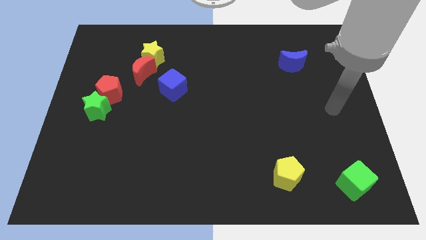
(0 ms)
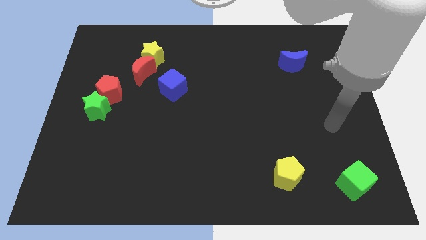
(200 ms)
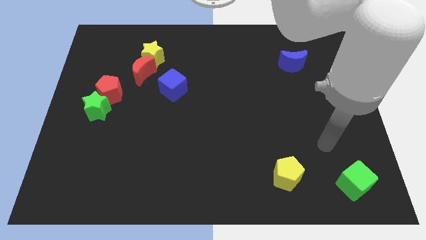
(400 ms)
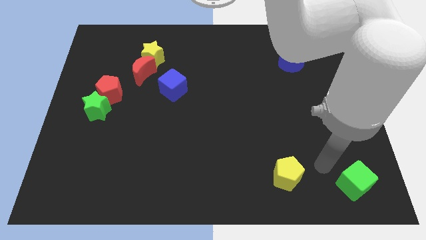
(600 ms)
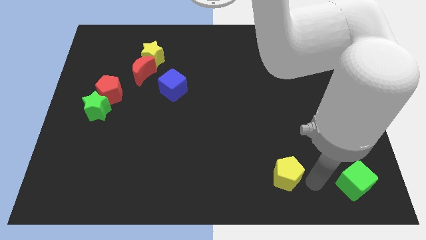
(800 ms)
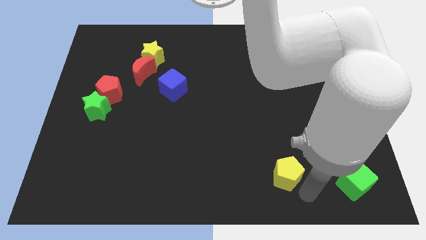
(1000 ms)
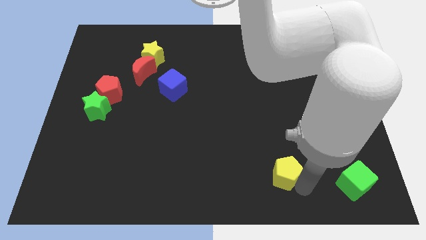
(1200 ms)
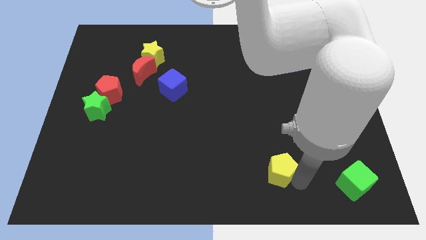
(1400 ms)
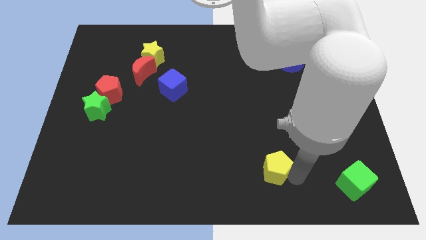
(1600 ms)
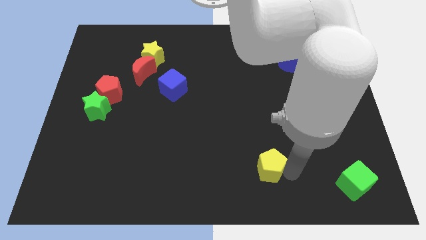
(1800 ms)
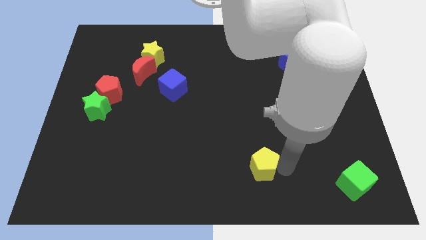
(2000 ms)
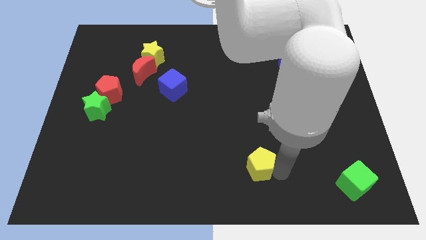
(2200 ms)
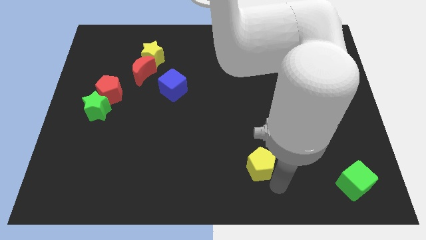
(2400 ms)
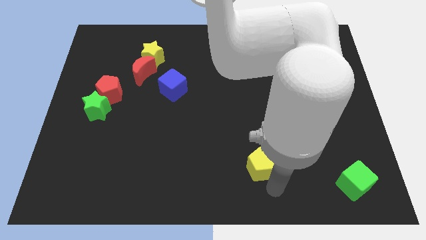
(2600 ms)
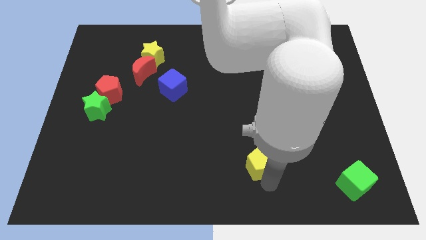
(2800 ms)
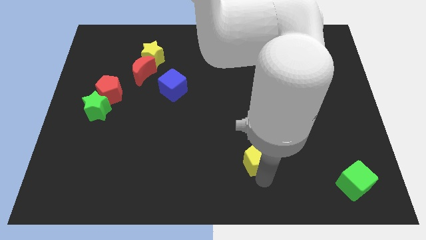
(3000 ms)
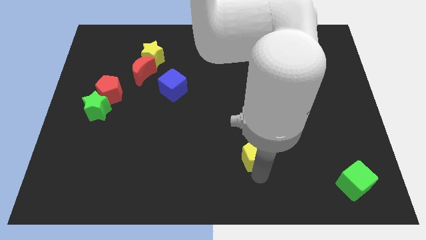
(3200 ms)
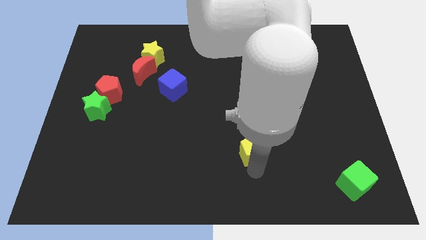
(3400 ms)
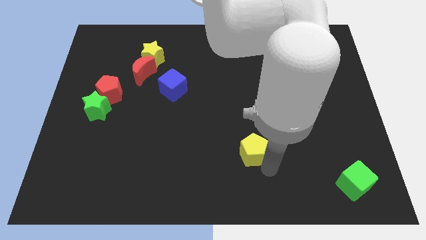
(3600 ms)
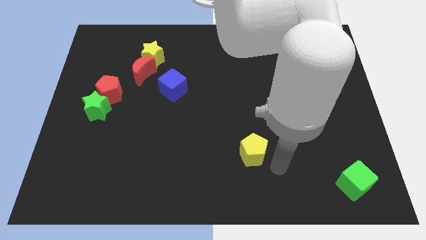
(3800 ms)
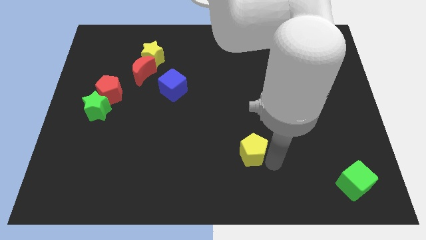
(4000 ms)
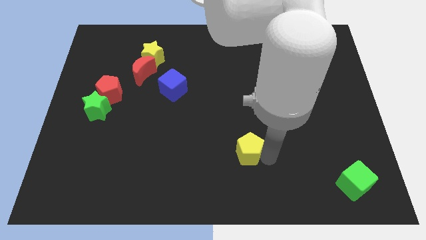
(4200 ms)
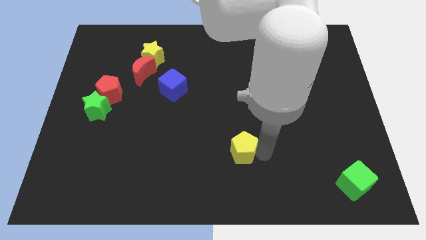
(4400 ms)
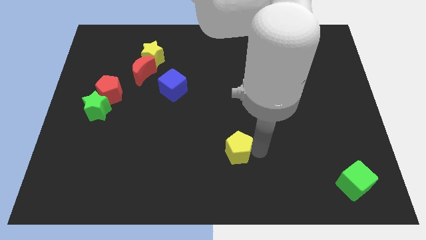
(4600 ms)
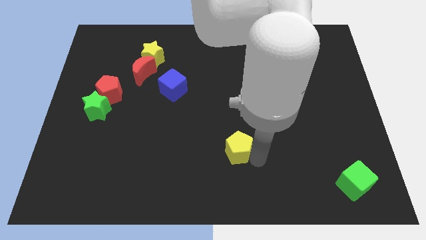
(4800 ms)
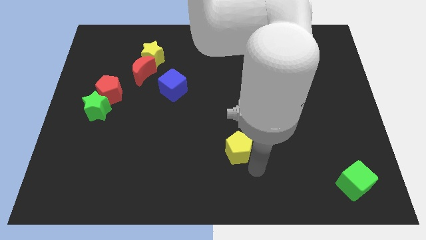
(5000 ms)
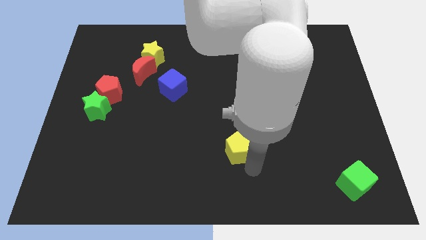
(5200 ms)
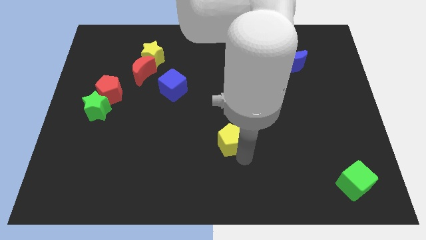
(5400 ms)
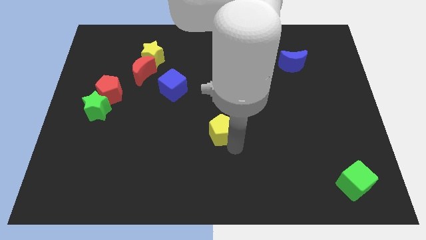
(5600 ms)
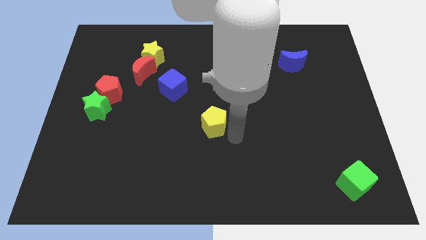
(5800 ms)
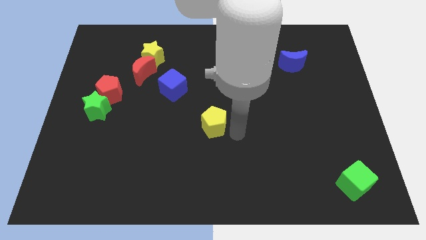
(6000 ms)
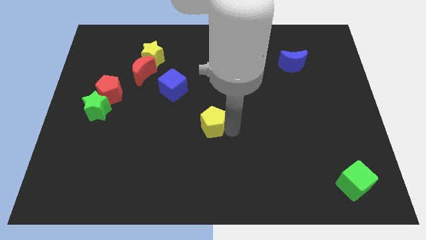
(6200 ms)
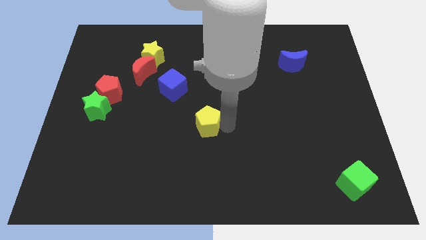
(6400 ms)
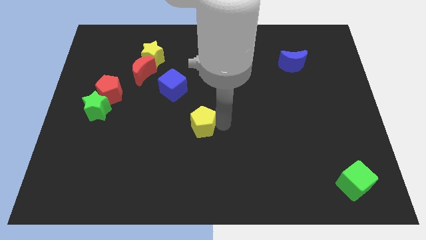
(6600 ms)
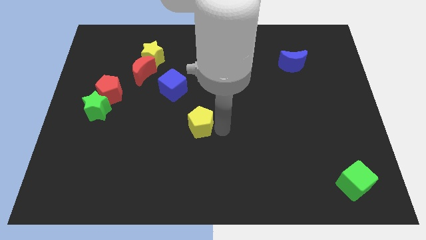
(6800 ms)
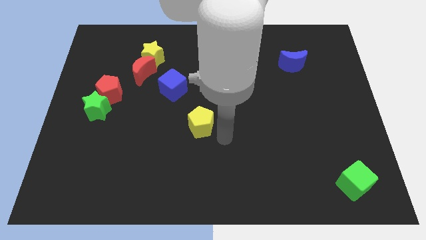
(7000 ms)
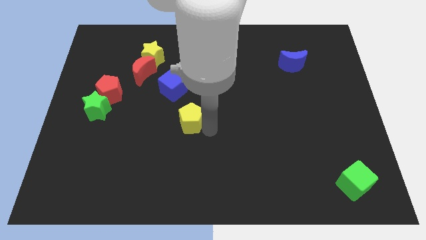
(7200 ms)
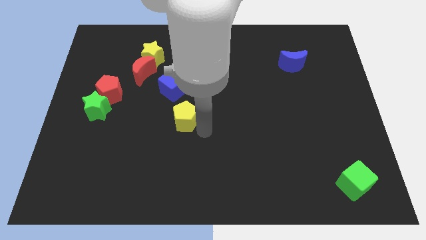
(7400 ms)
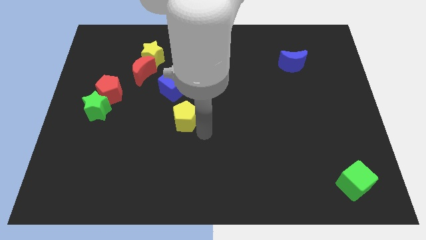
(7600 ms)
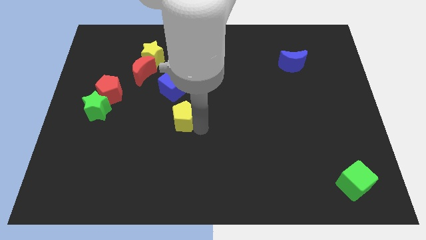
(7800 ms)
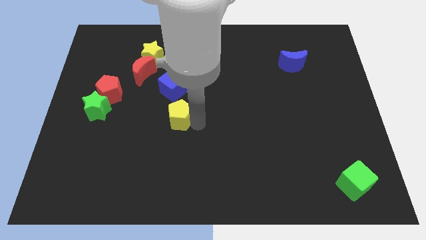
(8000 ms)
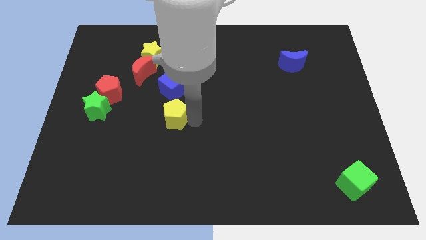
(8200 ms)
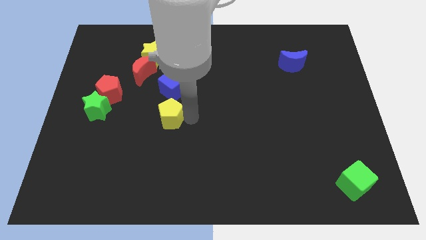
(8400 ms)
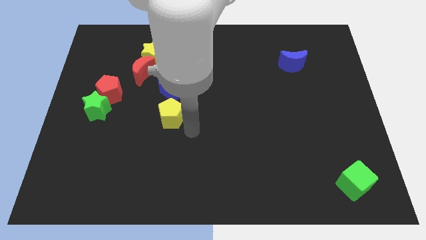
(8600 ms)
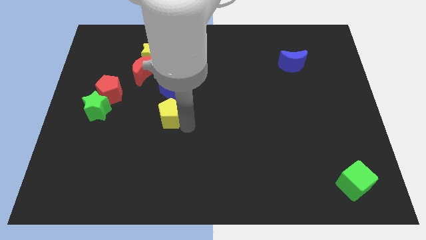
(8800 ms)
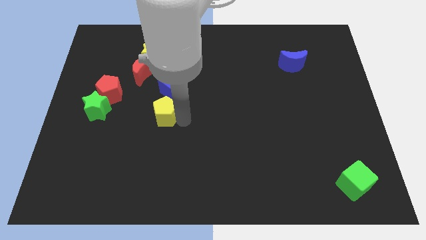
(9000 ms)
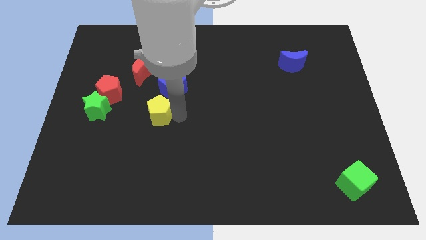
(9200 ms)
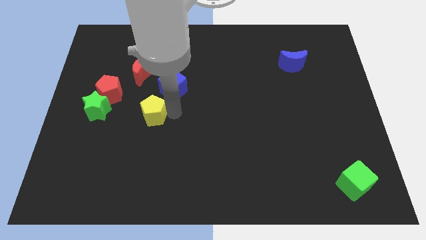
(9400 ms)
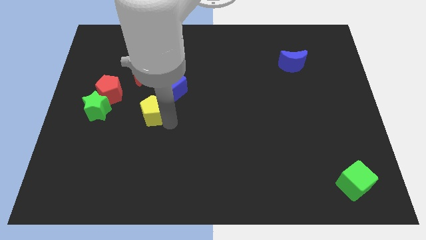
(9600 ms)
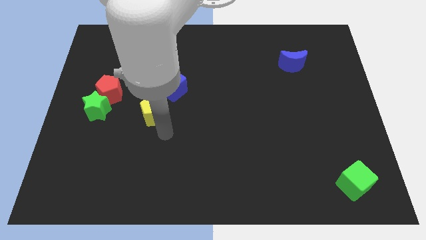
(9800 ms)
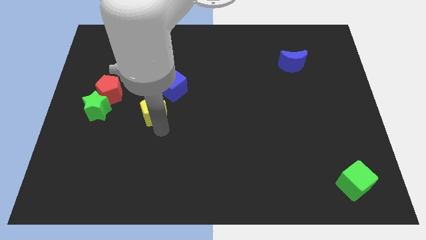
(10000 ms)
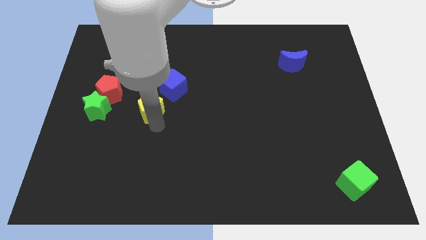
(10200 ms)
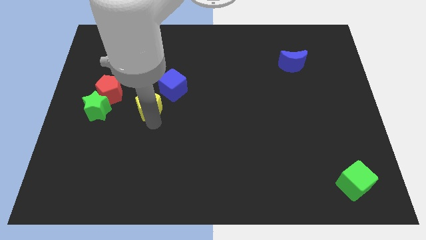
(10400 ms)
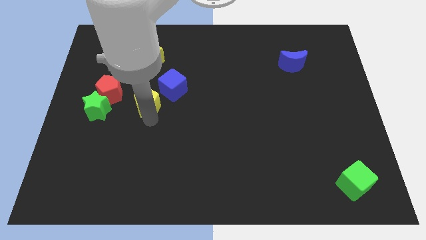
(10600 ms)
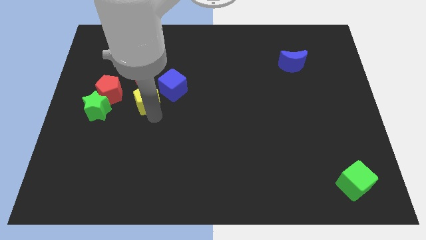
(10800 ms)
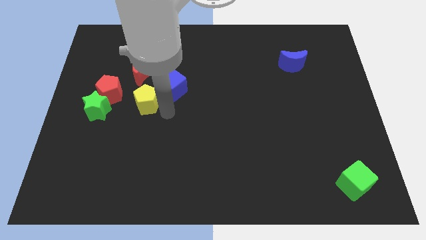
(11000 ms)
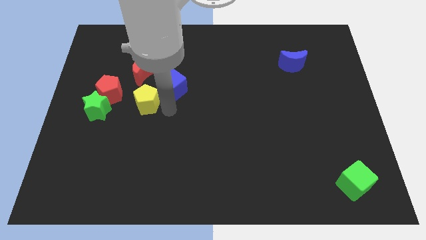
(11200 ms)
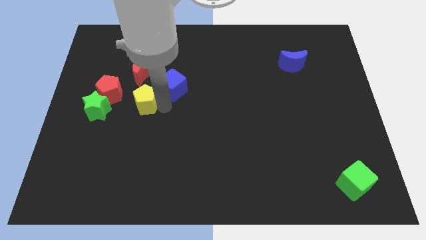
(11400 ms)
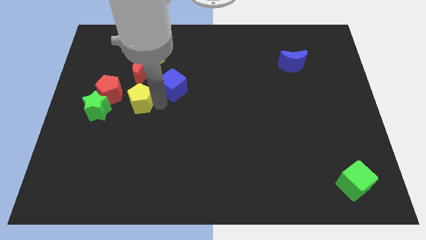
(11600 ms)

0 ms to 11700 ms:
push the yellow pentagon to the top right of the green star

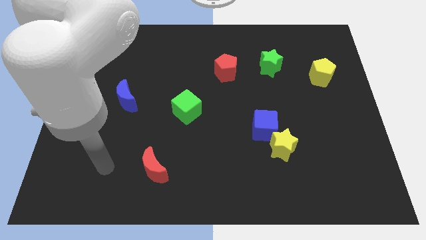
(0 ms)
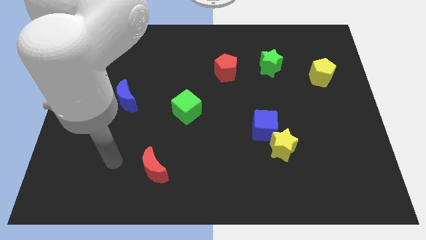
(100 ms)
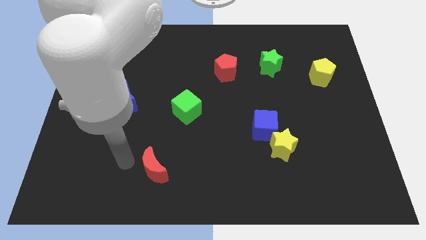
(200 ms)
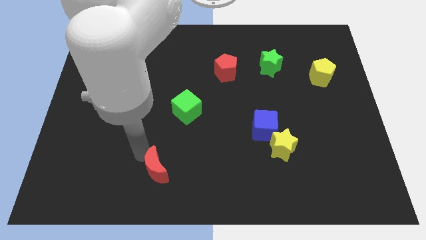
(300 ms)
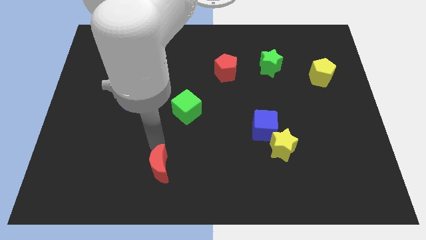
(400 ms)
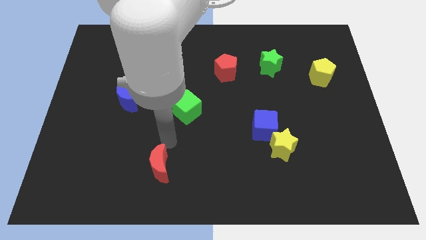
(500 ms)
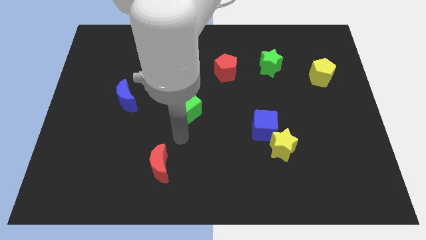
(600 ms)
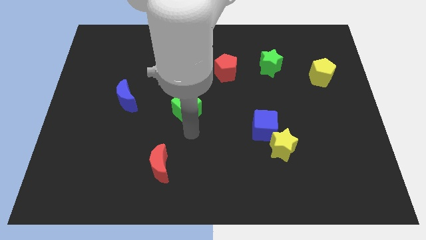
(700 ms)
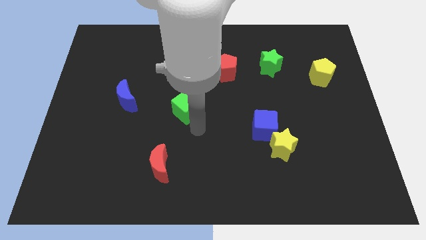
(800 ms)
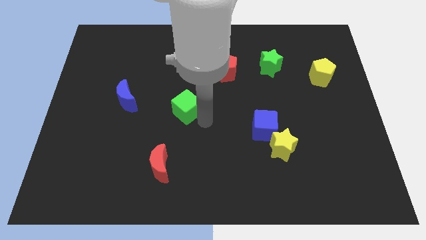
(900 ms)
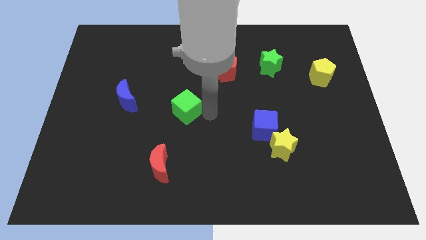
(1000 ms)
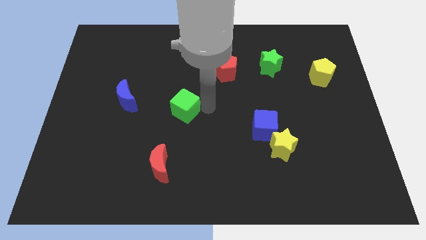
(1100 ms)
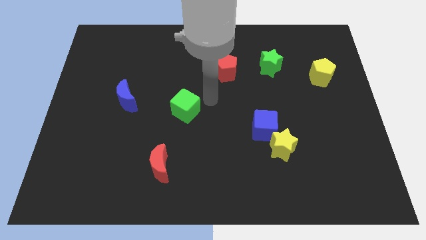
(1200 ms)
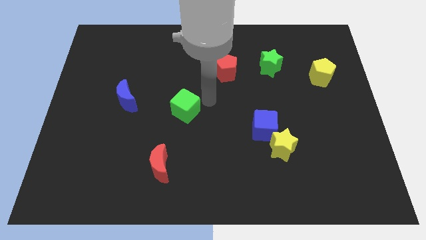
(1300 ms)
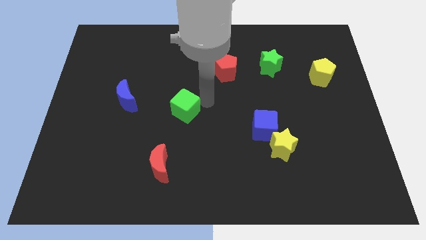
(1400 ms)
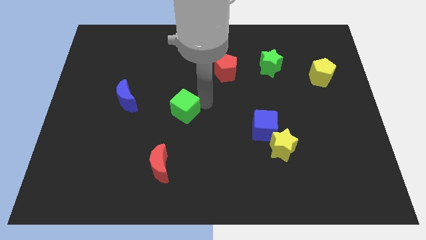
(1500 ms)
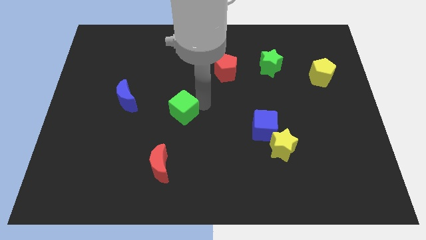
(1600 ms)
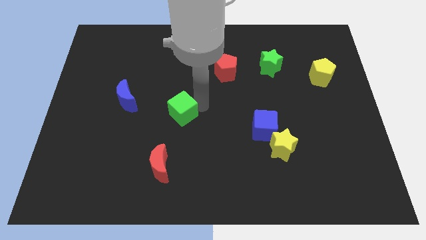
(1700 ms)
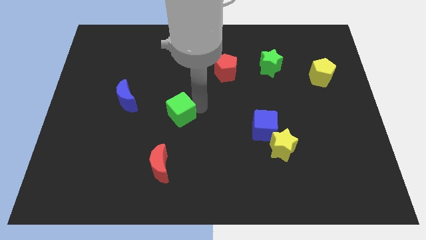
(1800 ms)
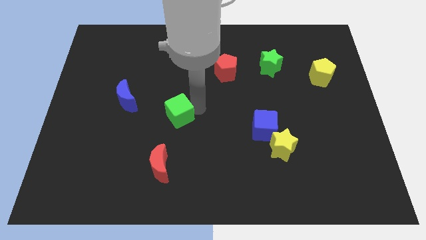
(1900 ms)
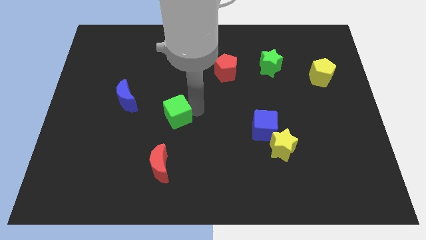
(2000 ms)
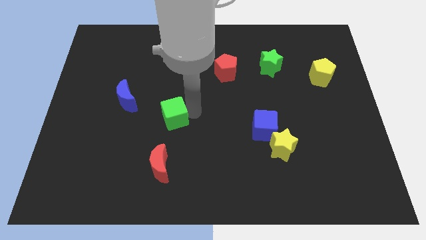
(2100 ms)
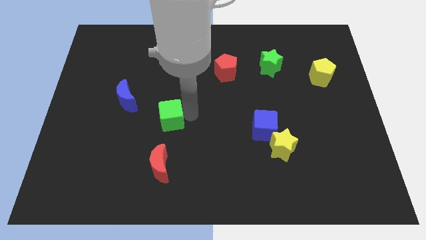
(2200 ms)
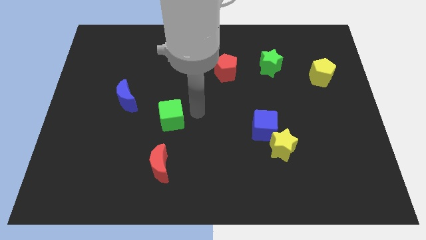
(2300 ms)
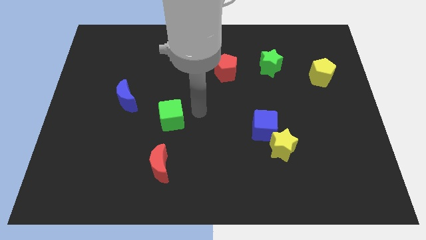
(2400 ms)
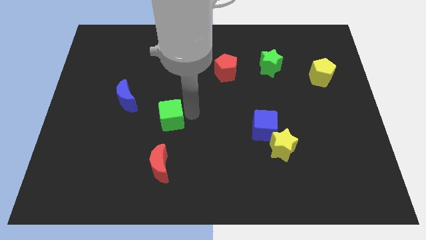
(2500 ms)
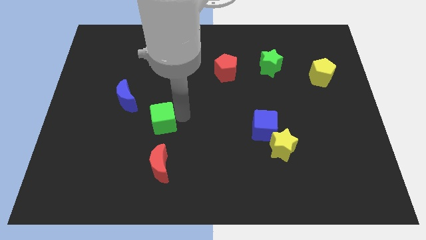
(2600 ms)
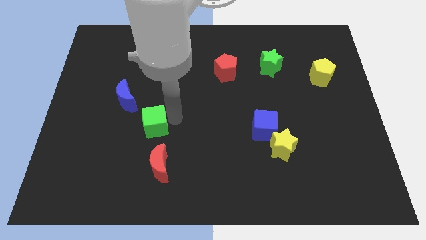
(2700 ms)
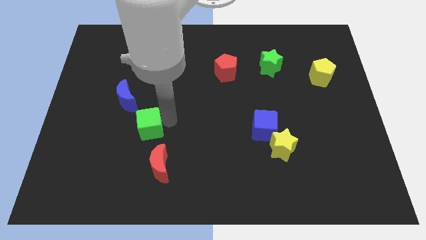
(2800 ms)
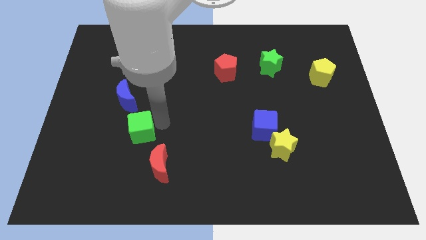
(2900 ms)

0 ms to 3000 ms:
push the green cube below the blue moon
